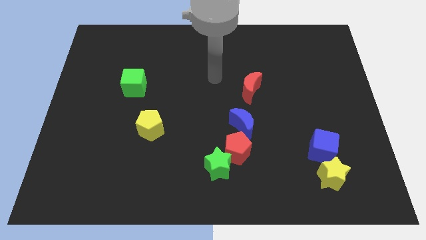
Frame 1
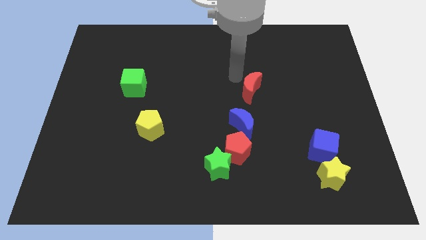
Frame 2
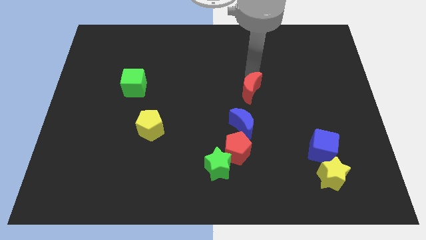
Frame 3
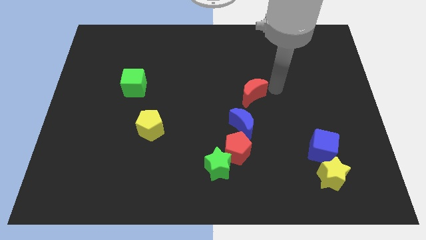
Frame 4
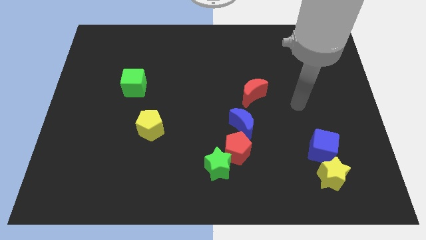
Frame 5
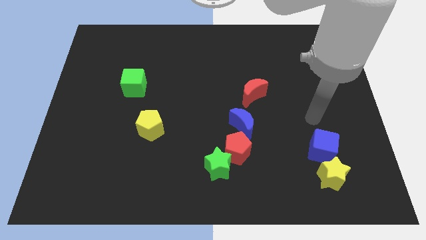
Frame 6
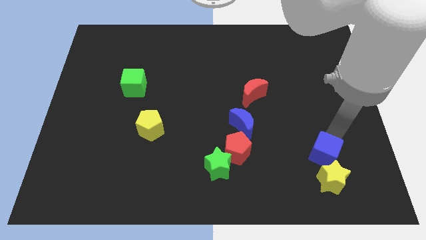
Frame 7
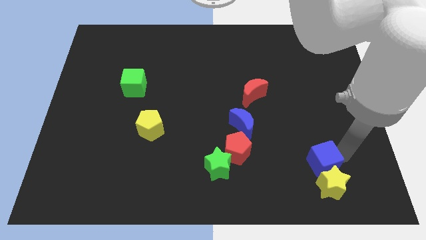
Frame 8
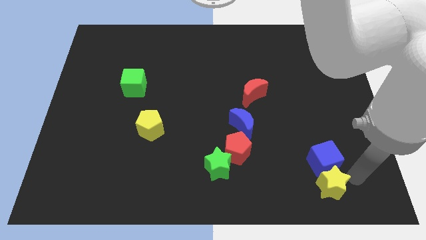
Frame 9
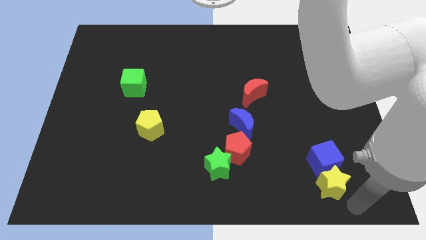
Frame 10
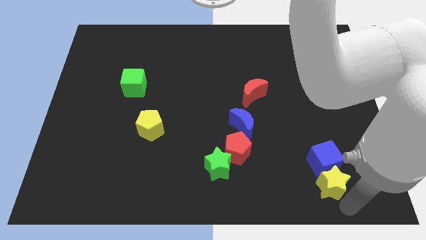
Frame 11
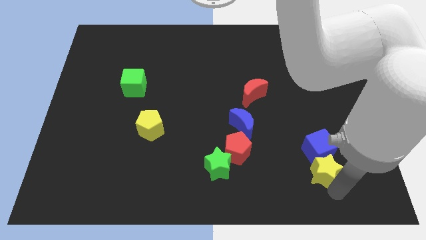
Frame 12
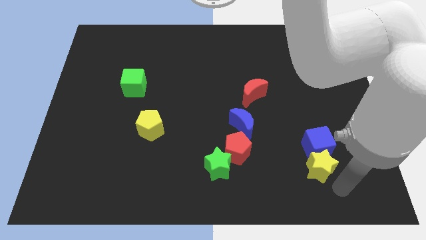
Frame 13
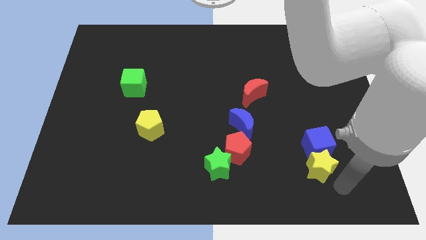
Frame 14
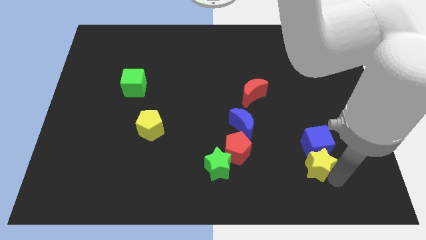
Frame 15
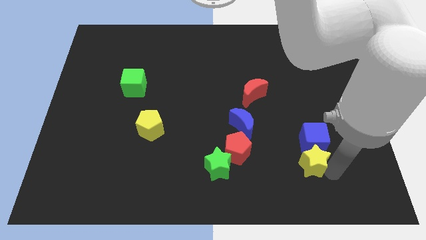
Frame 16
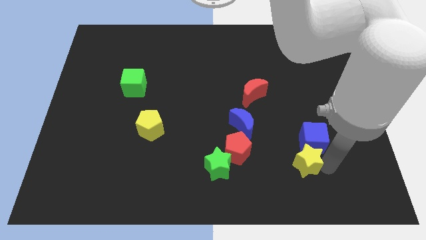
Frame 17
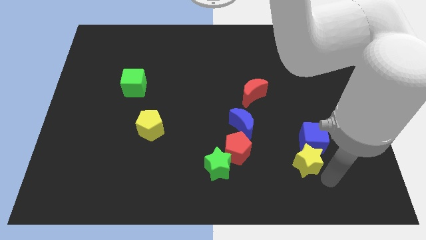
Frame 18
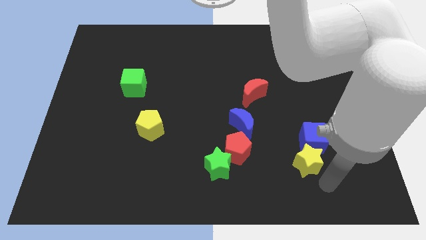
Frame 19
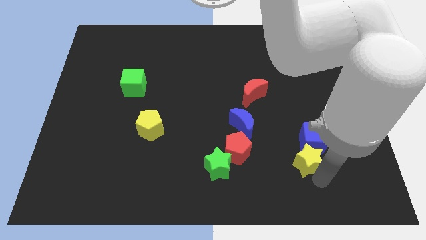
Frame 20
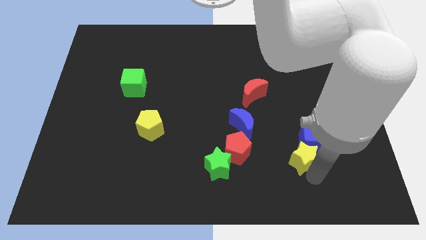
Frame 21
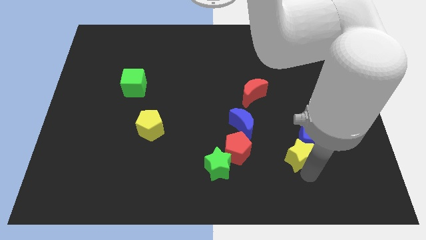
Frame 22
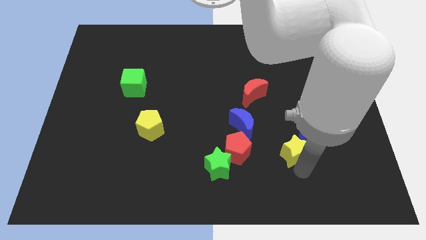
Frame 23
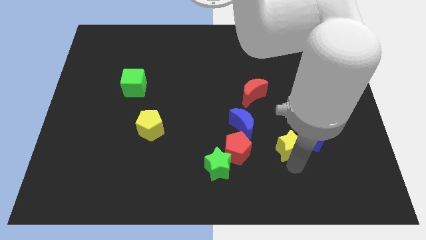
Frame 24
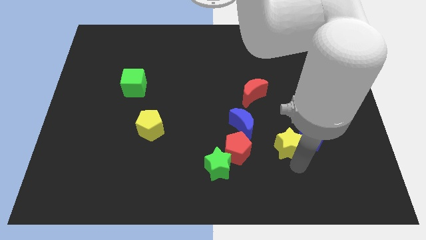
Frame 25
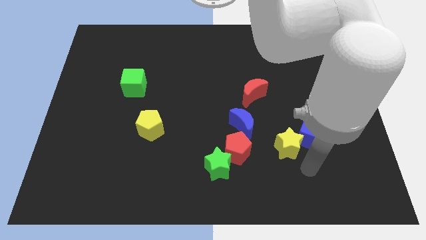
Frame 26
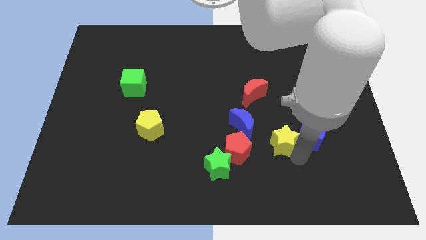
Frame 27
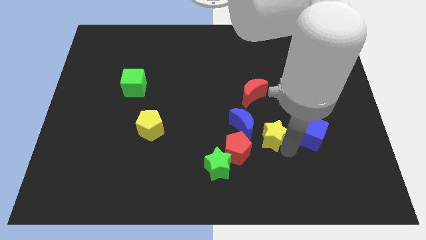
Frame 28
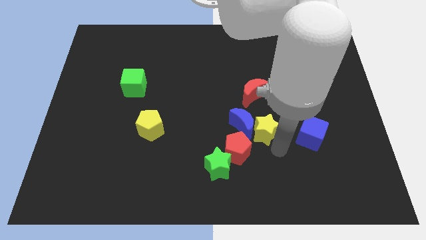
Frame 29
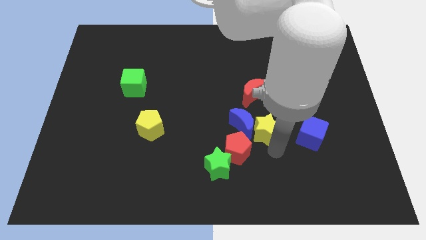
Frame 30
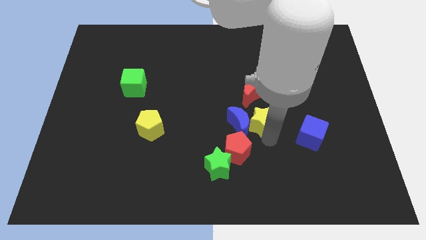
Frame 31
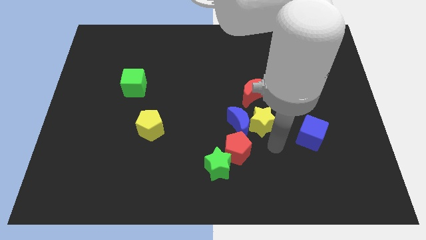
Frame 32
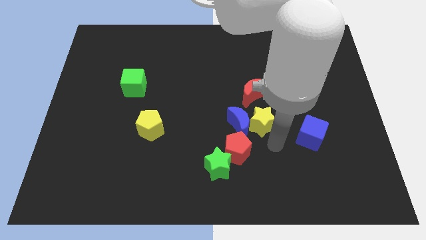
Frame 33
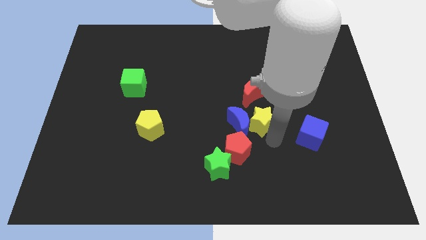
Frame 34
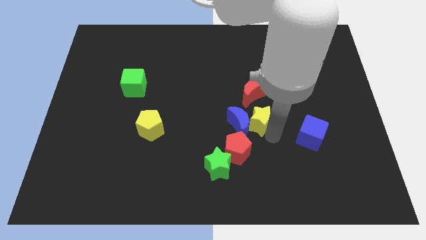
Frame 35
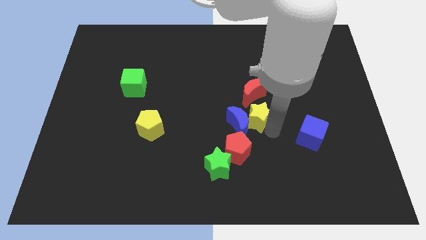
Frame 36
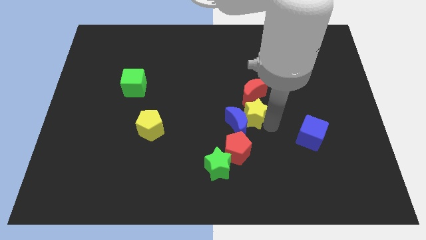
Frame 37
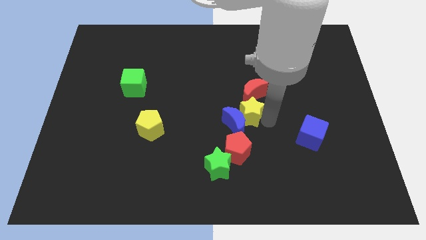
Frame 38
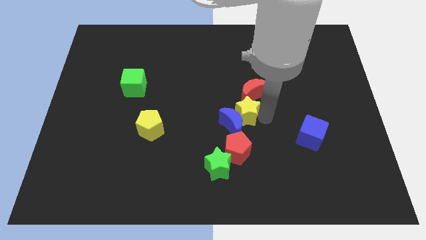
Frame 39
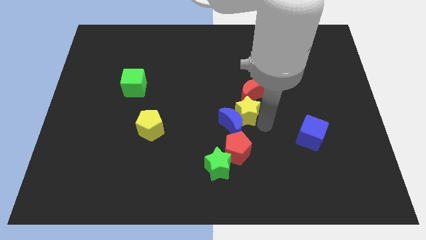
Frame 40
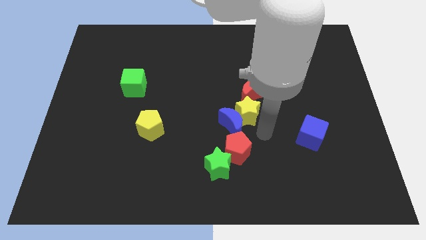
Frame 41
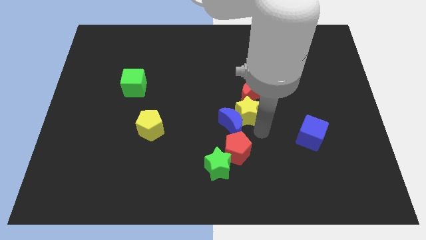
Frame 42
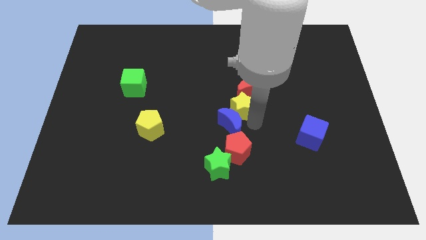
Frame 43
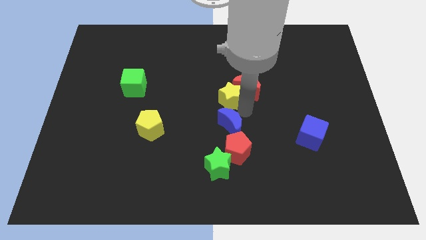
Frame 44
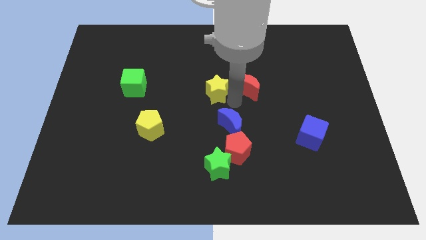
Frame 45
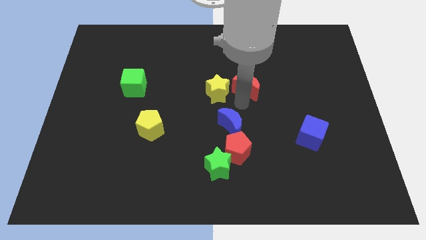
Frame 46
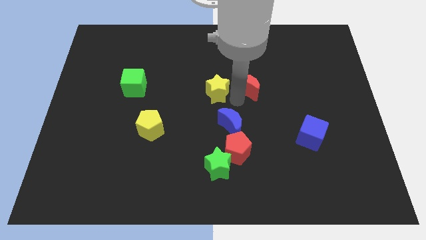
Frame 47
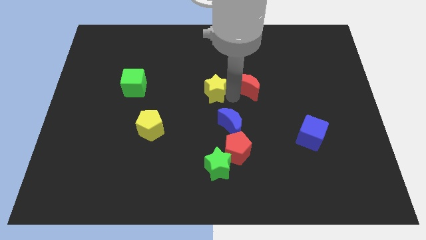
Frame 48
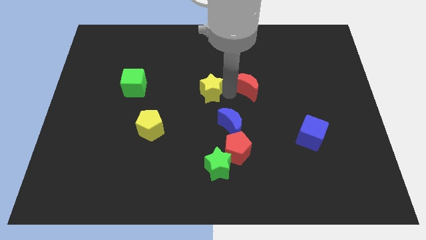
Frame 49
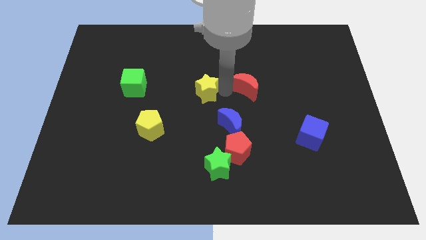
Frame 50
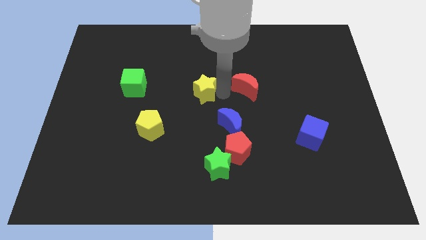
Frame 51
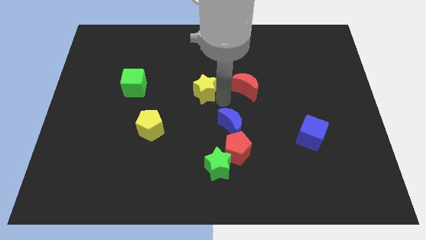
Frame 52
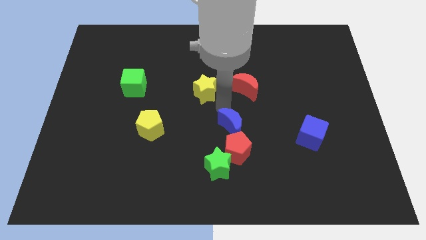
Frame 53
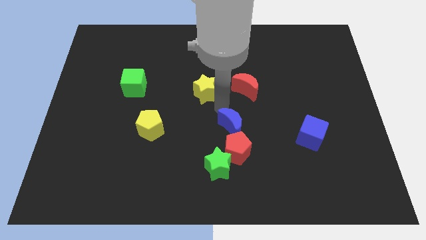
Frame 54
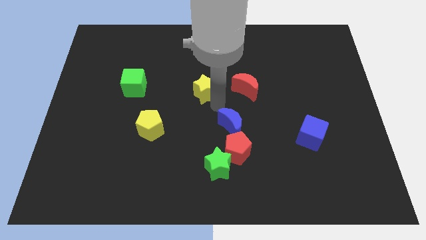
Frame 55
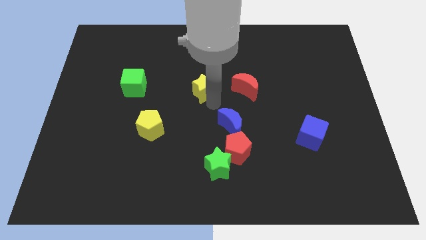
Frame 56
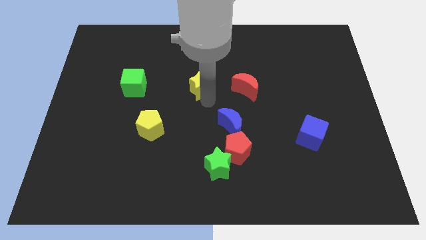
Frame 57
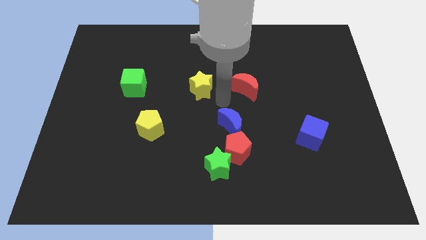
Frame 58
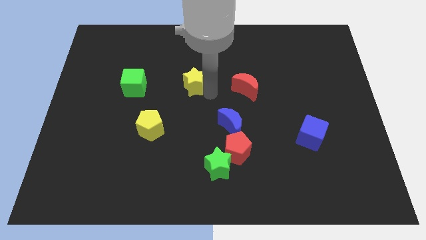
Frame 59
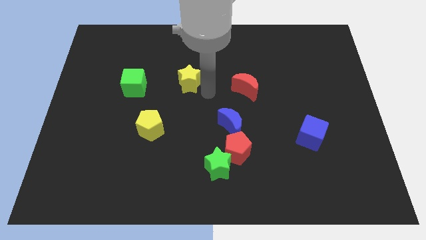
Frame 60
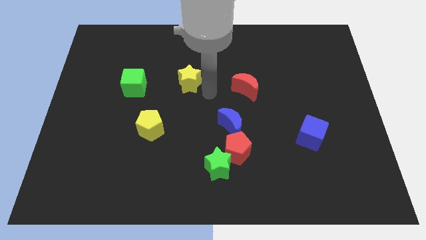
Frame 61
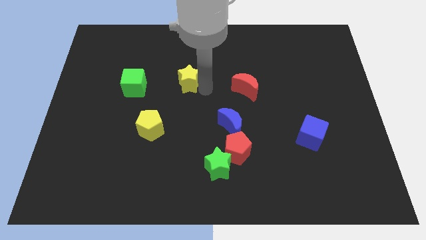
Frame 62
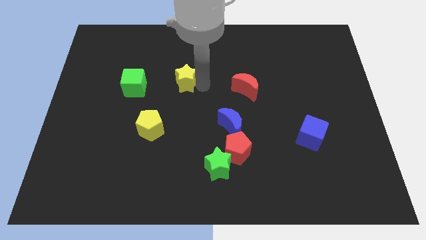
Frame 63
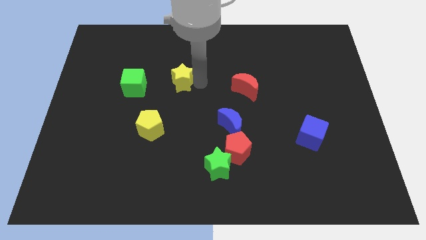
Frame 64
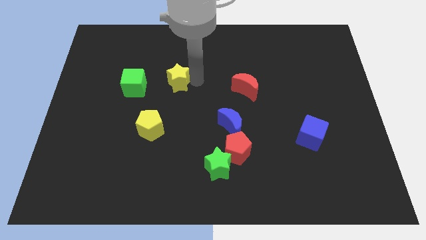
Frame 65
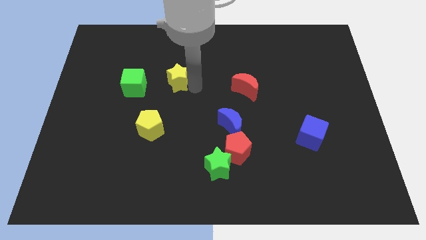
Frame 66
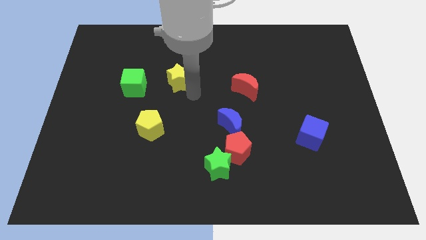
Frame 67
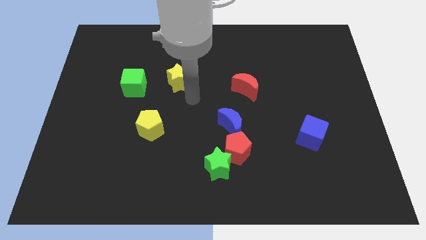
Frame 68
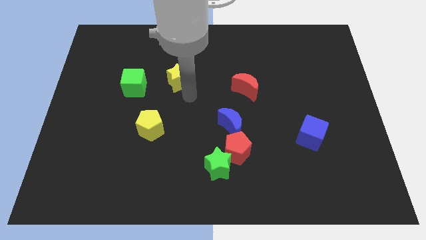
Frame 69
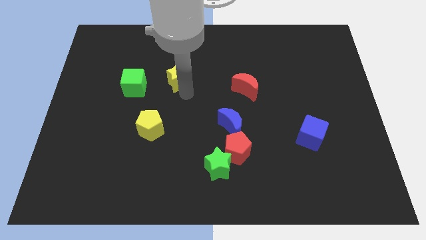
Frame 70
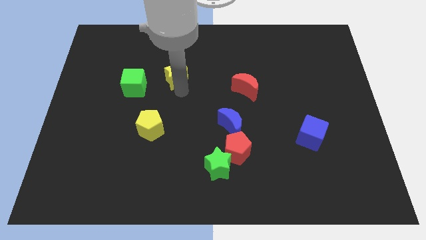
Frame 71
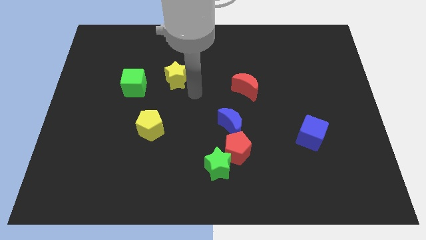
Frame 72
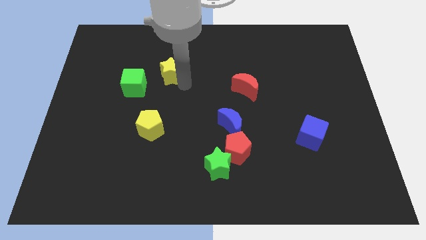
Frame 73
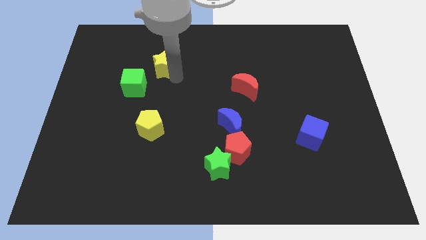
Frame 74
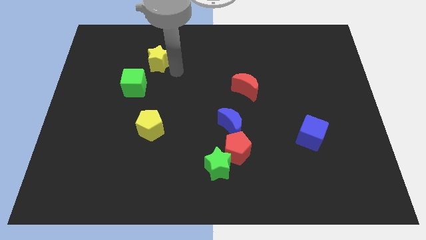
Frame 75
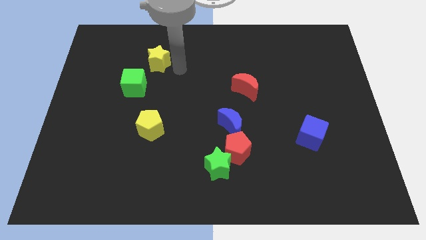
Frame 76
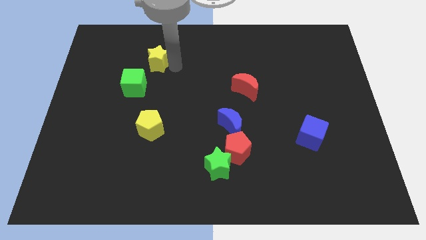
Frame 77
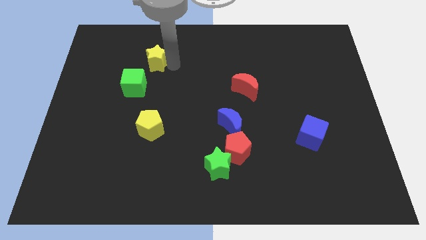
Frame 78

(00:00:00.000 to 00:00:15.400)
push the yellow star to the top of the green cube

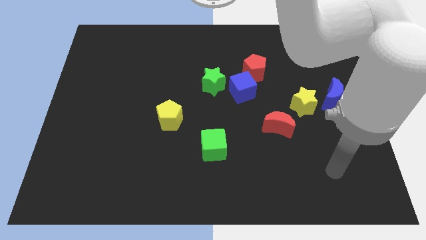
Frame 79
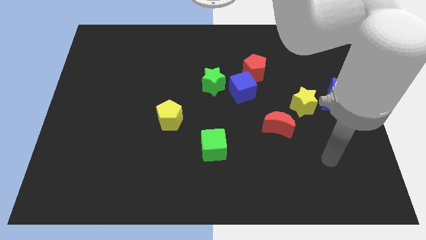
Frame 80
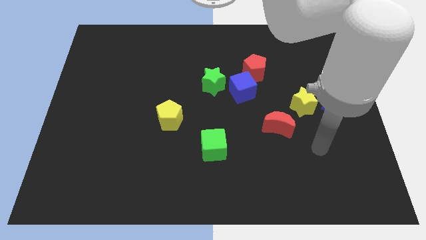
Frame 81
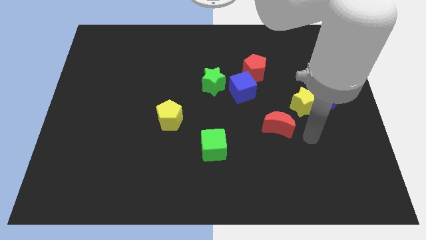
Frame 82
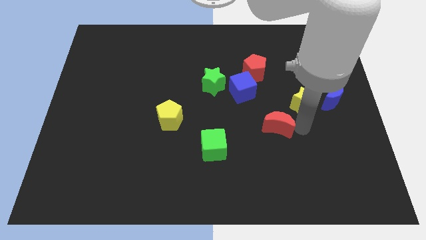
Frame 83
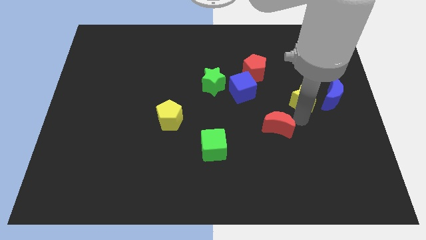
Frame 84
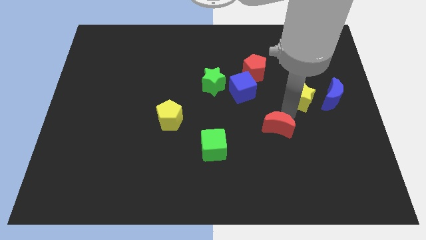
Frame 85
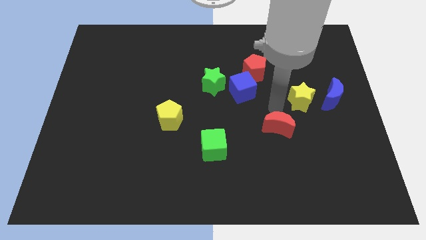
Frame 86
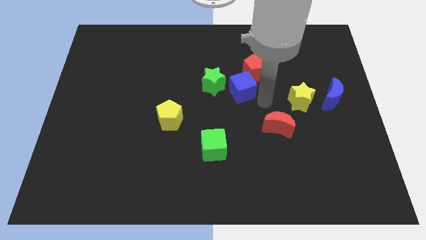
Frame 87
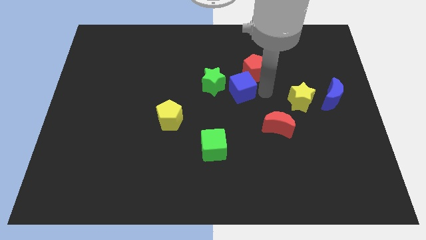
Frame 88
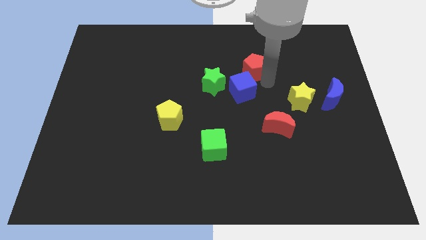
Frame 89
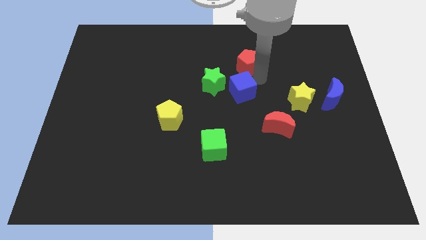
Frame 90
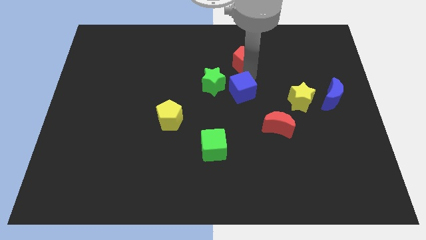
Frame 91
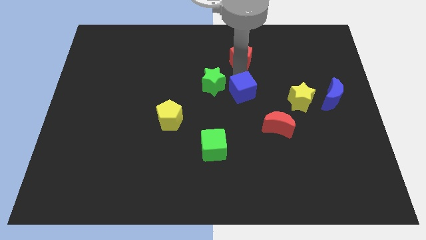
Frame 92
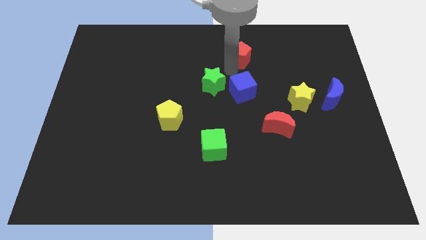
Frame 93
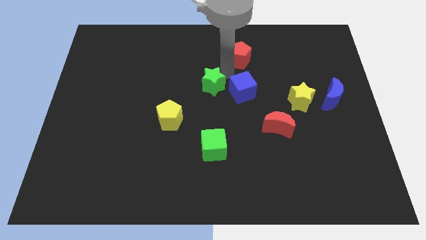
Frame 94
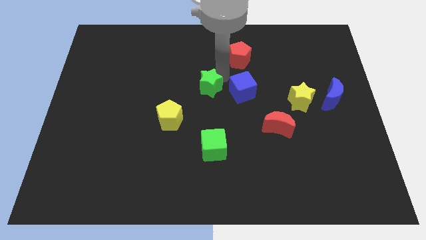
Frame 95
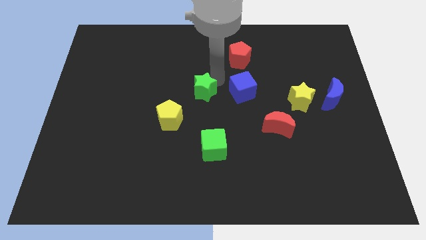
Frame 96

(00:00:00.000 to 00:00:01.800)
move the green star diagonally up and to the right of the yellow pentagon
